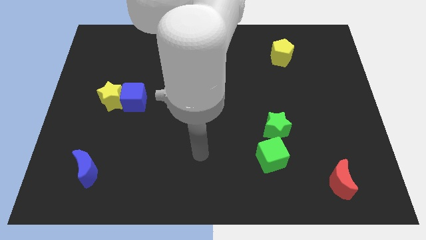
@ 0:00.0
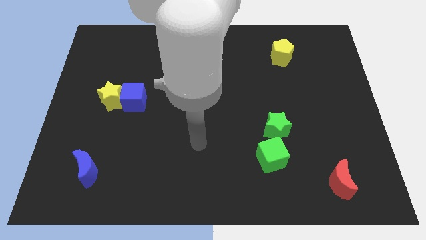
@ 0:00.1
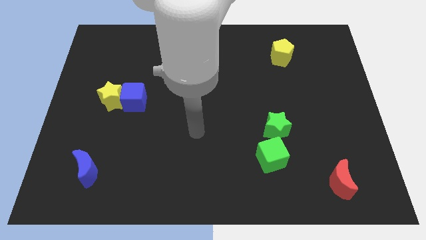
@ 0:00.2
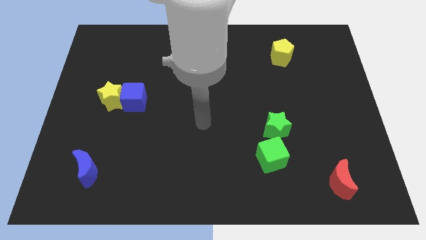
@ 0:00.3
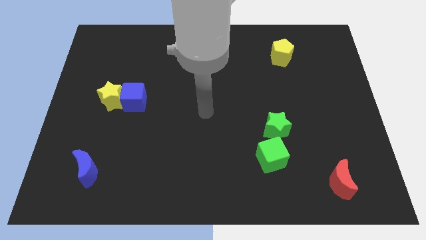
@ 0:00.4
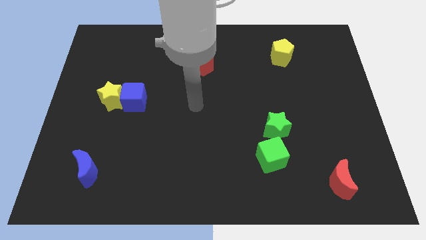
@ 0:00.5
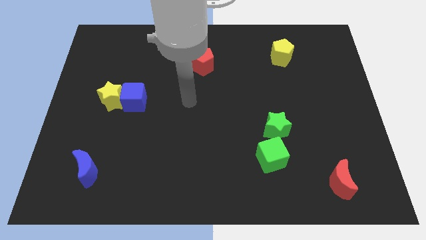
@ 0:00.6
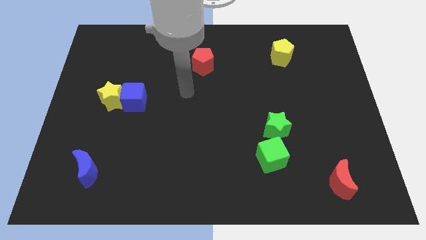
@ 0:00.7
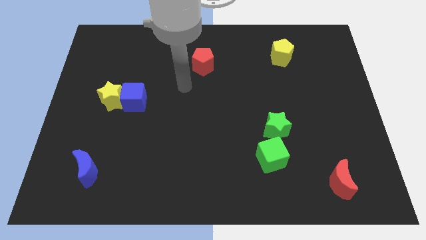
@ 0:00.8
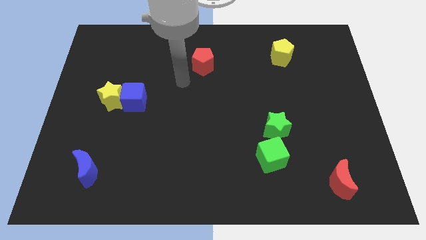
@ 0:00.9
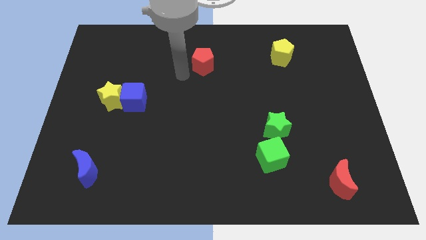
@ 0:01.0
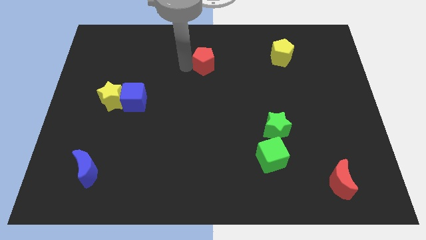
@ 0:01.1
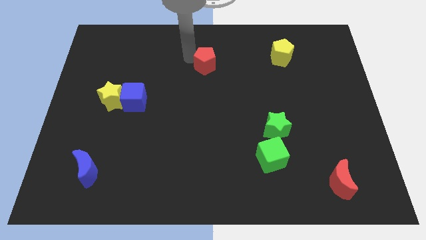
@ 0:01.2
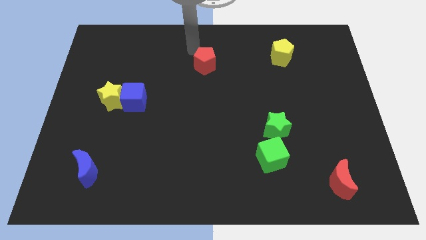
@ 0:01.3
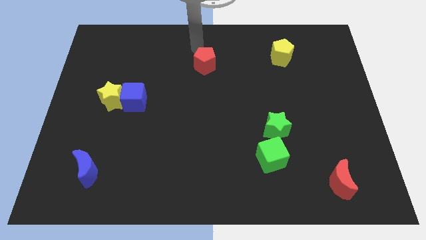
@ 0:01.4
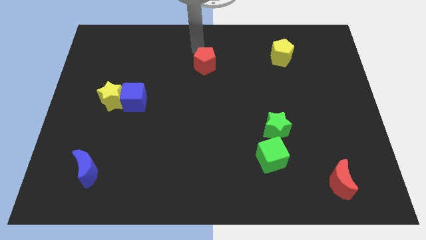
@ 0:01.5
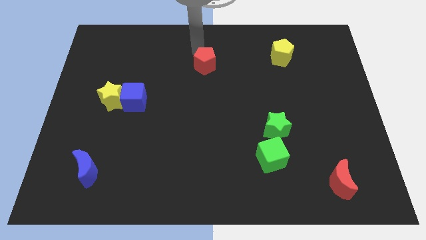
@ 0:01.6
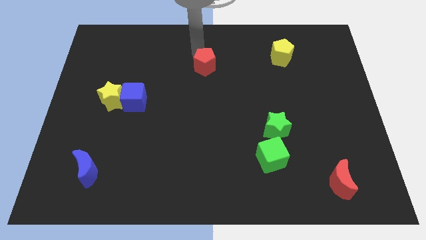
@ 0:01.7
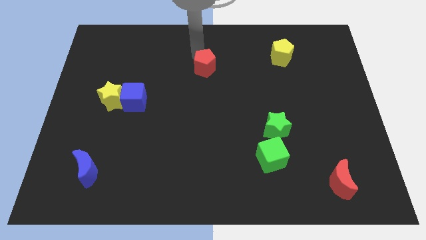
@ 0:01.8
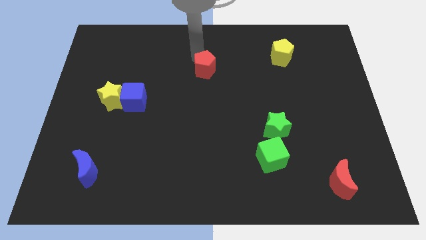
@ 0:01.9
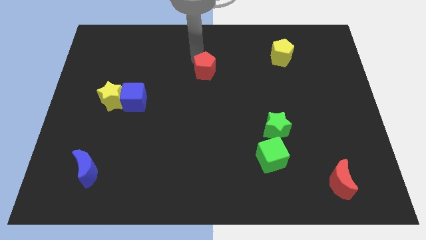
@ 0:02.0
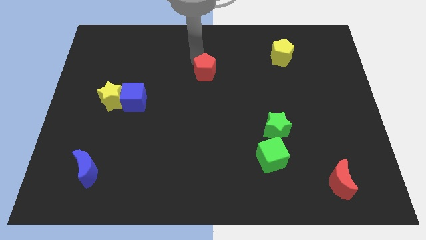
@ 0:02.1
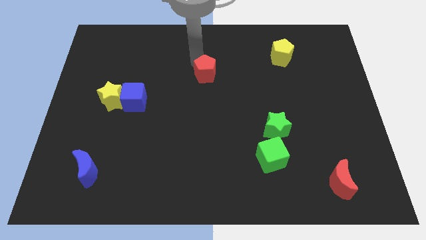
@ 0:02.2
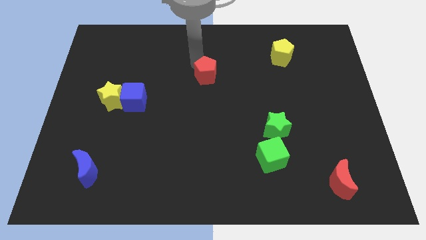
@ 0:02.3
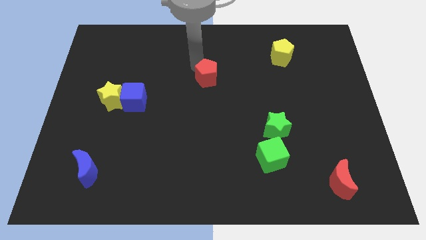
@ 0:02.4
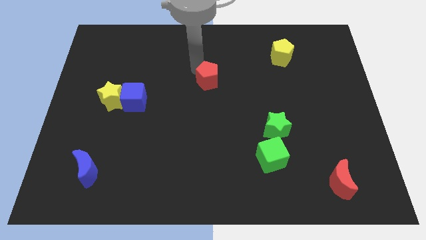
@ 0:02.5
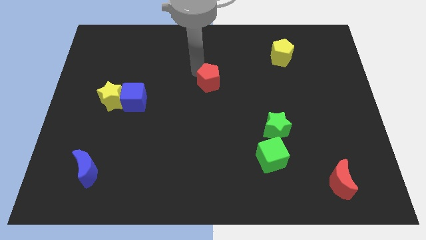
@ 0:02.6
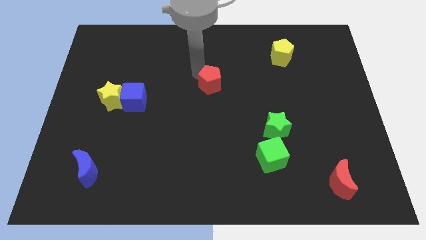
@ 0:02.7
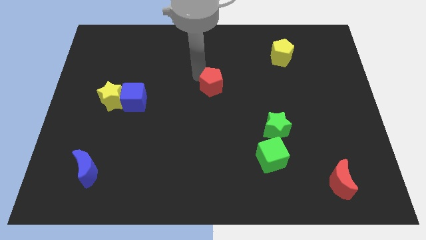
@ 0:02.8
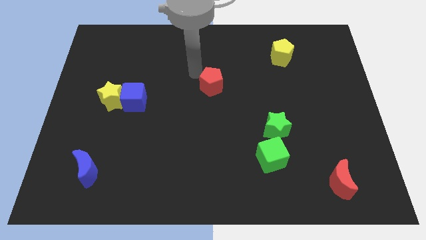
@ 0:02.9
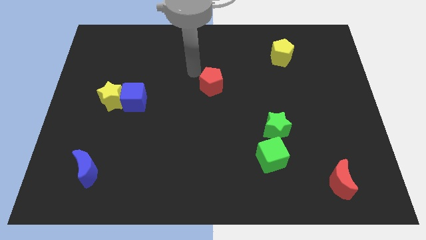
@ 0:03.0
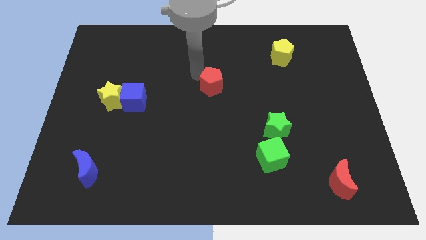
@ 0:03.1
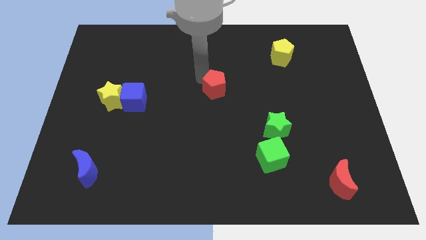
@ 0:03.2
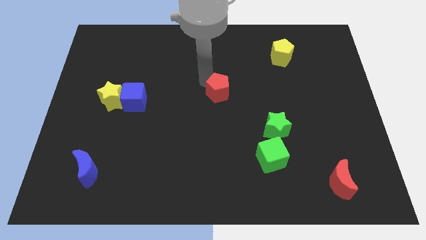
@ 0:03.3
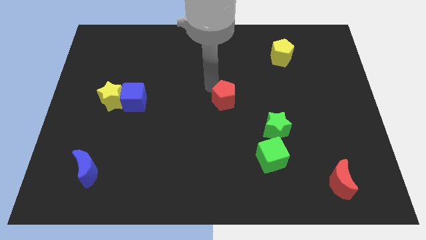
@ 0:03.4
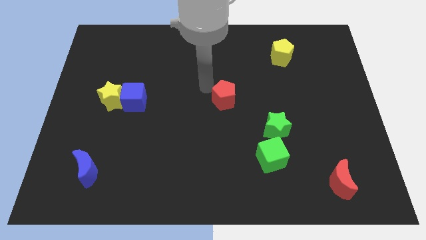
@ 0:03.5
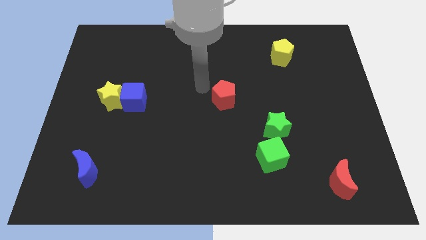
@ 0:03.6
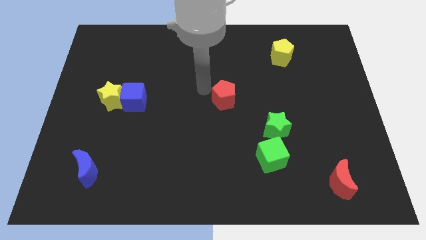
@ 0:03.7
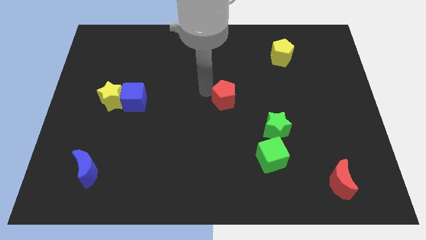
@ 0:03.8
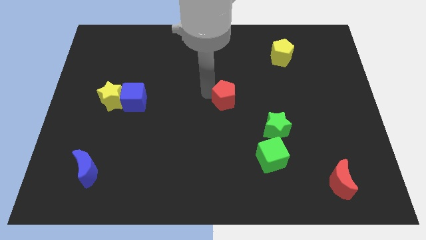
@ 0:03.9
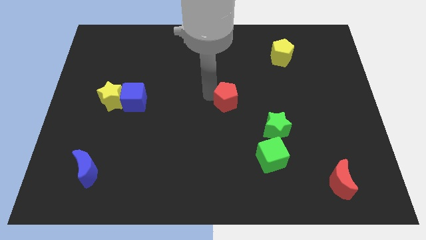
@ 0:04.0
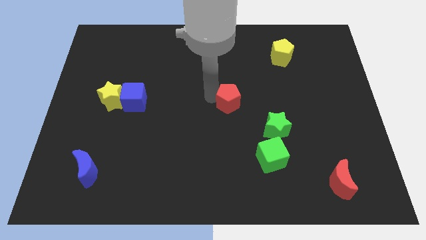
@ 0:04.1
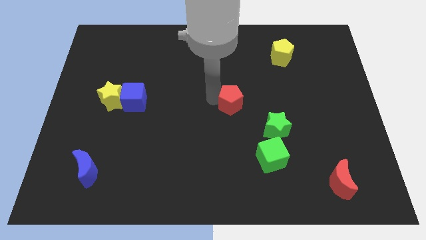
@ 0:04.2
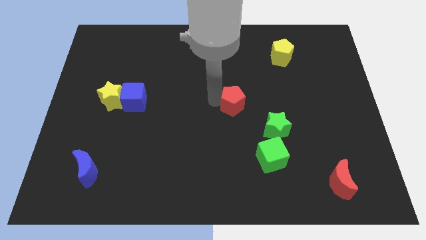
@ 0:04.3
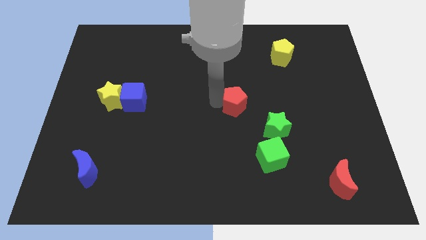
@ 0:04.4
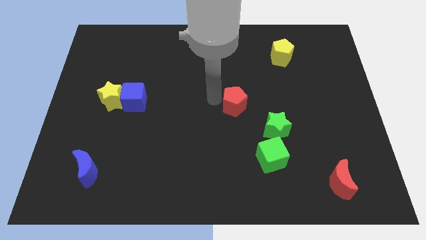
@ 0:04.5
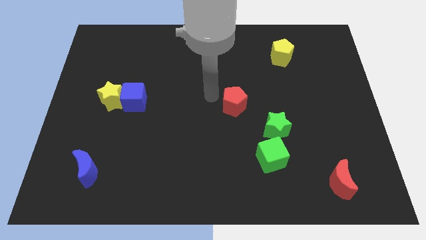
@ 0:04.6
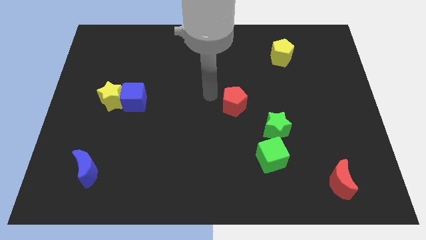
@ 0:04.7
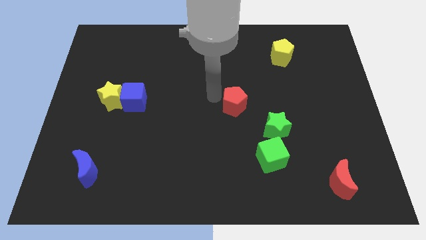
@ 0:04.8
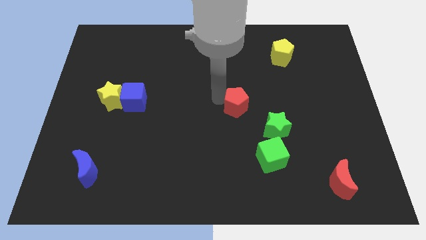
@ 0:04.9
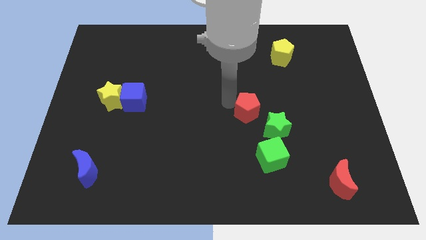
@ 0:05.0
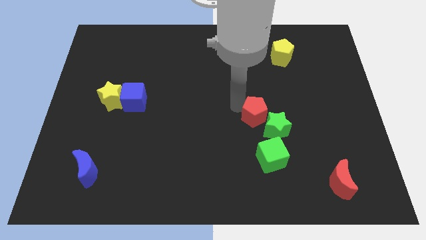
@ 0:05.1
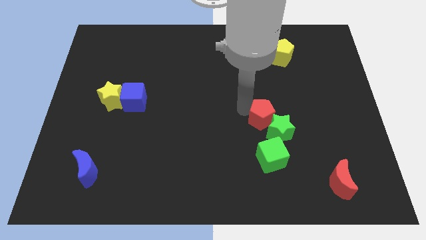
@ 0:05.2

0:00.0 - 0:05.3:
move the red pentagon to the green star

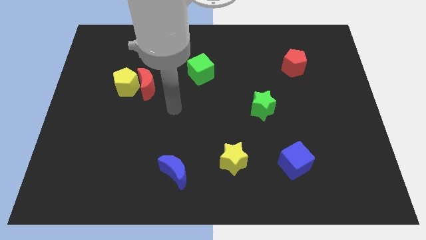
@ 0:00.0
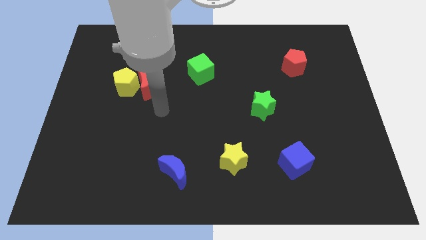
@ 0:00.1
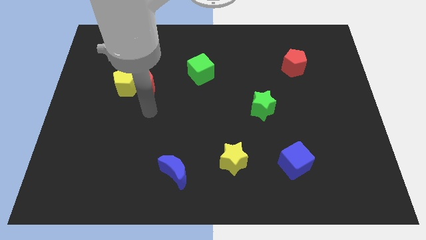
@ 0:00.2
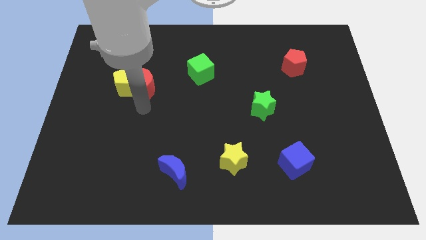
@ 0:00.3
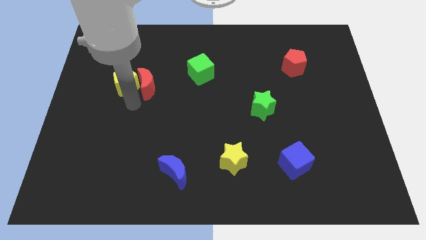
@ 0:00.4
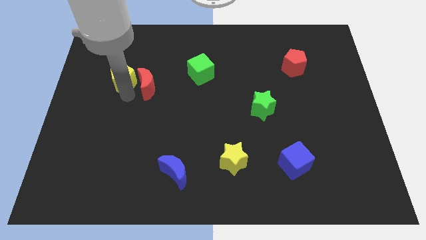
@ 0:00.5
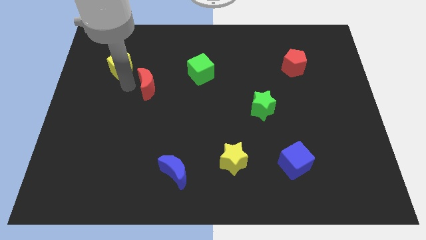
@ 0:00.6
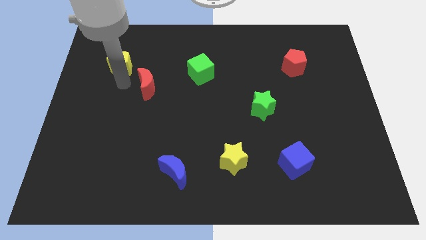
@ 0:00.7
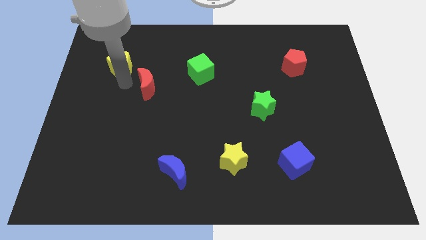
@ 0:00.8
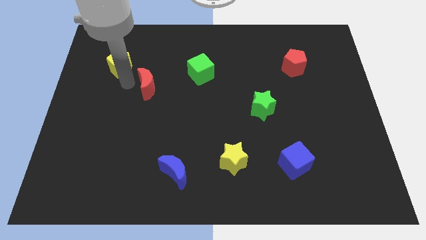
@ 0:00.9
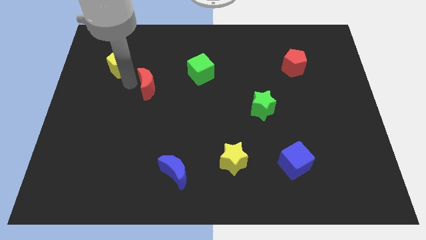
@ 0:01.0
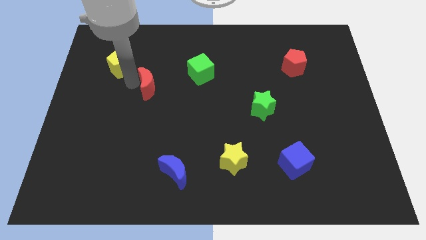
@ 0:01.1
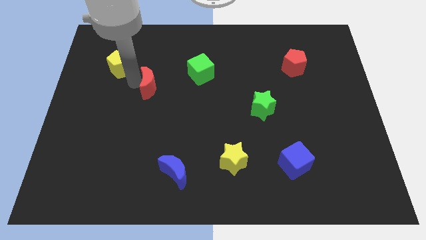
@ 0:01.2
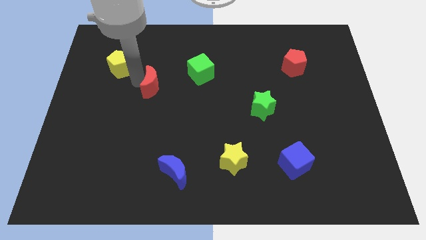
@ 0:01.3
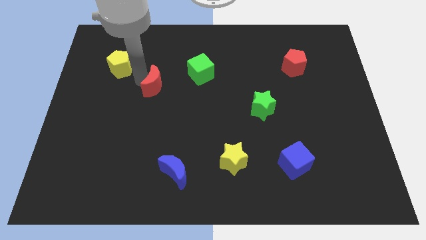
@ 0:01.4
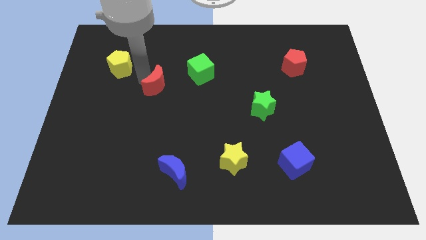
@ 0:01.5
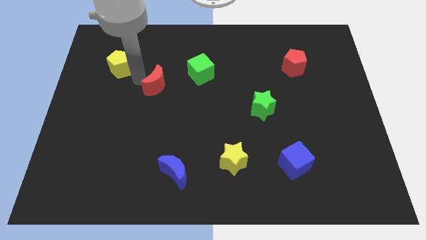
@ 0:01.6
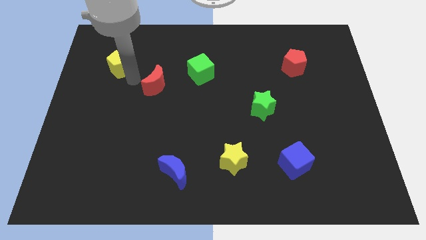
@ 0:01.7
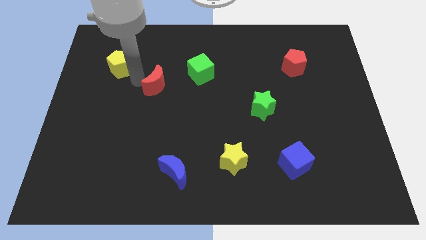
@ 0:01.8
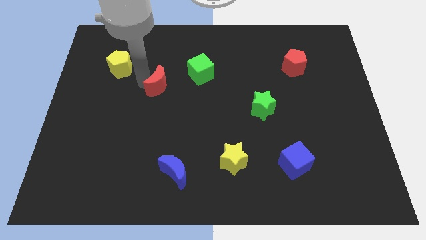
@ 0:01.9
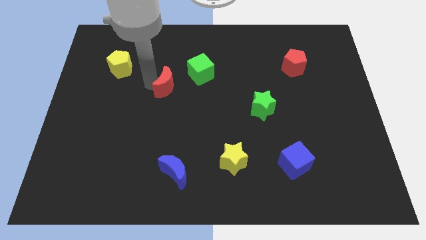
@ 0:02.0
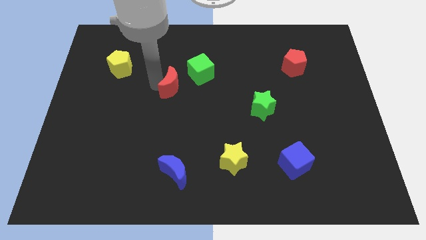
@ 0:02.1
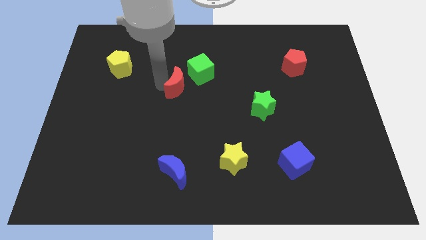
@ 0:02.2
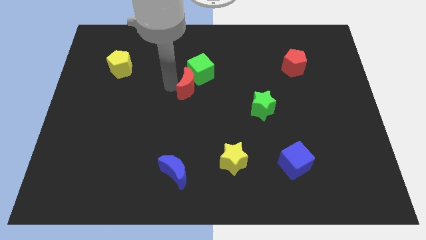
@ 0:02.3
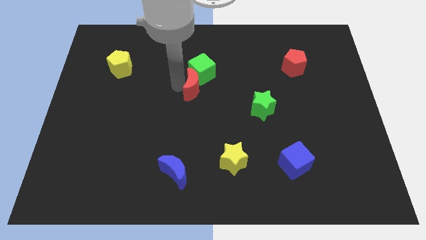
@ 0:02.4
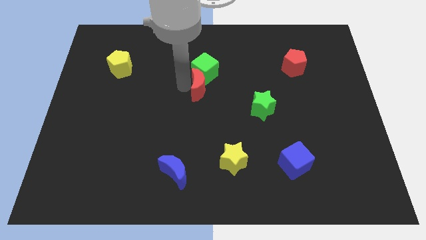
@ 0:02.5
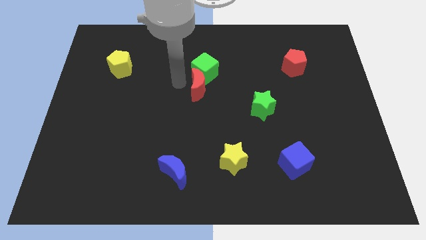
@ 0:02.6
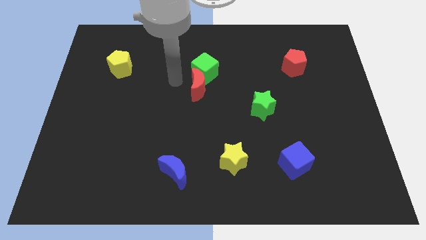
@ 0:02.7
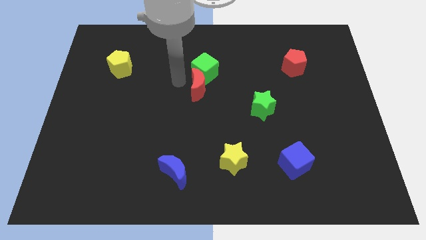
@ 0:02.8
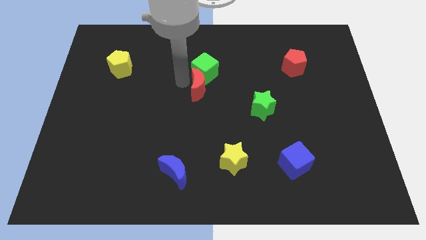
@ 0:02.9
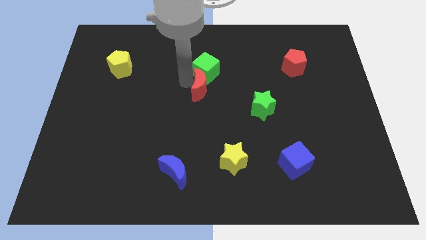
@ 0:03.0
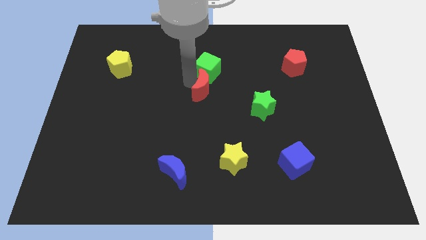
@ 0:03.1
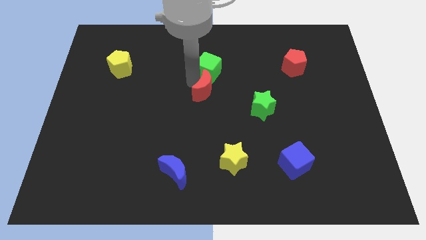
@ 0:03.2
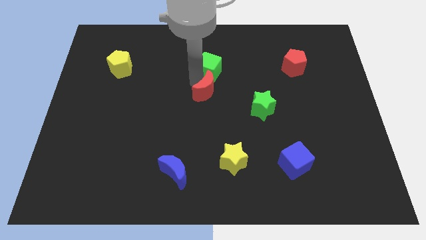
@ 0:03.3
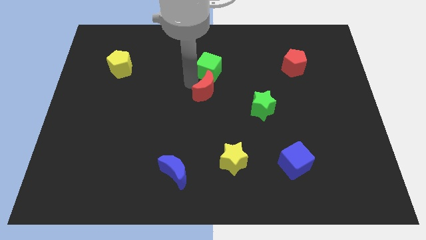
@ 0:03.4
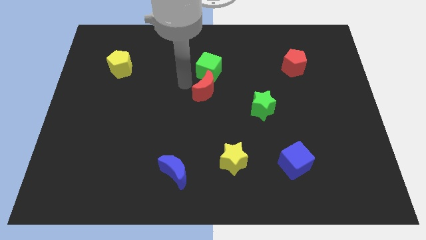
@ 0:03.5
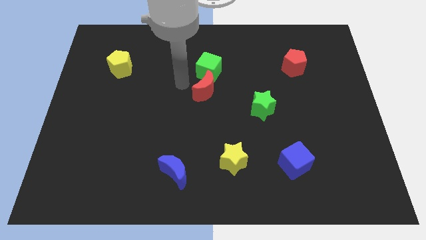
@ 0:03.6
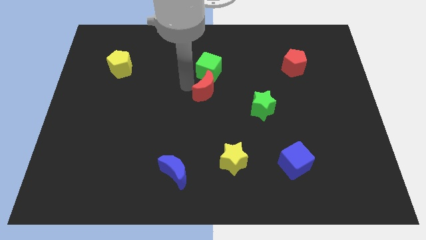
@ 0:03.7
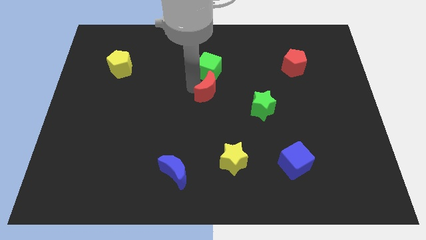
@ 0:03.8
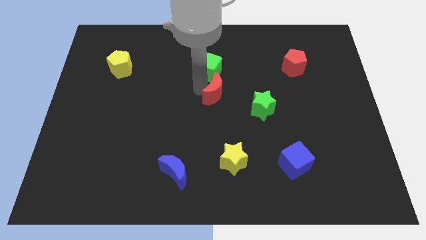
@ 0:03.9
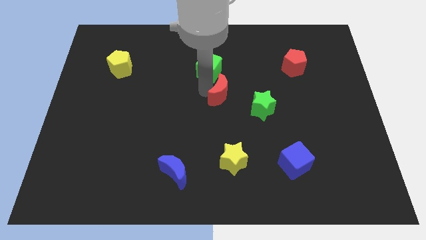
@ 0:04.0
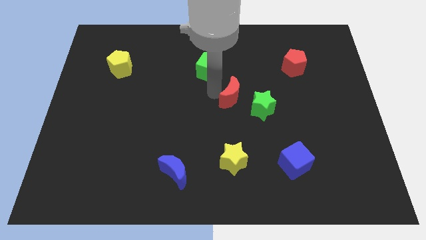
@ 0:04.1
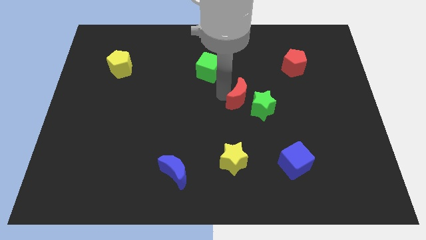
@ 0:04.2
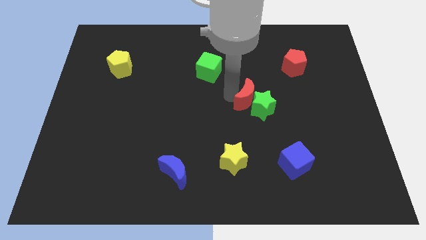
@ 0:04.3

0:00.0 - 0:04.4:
push the red moon towards the green star
